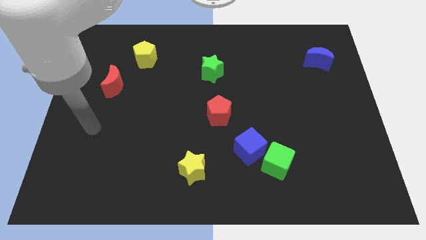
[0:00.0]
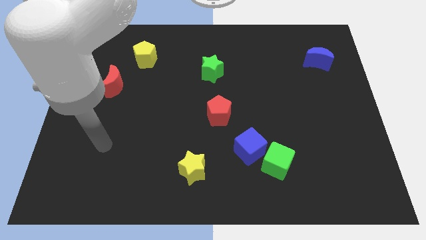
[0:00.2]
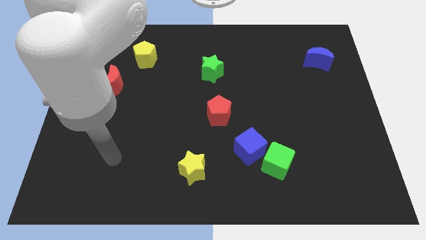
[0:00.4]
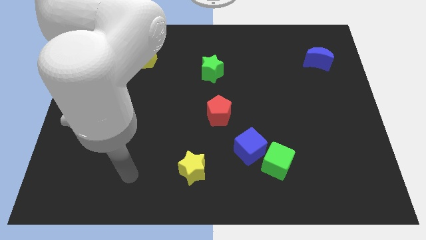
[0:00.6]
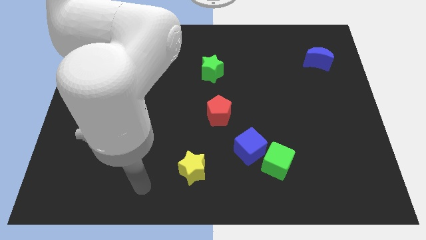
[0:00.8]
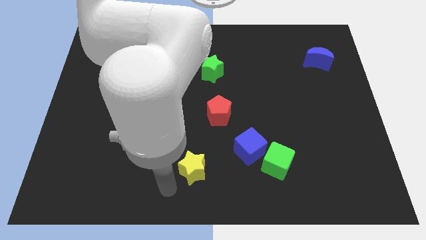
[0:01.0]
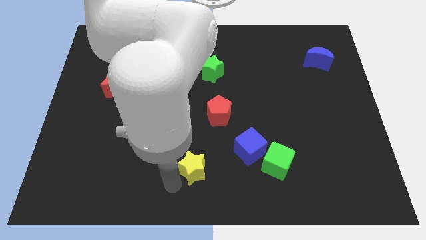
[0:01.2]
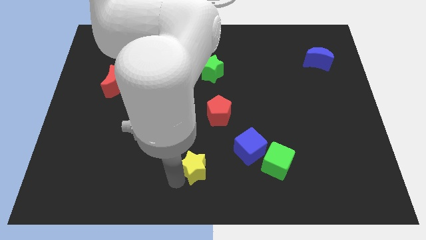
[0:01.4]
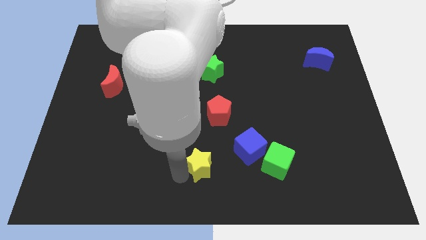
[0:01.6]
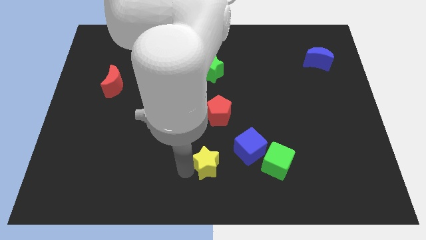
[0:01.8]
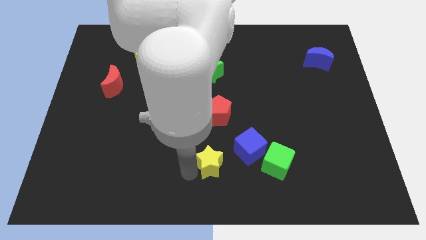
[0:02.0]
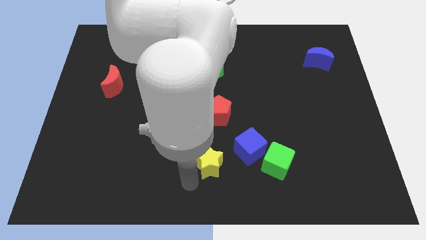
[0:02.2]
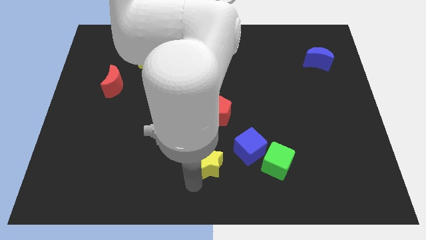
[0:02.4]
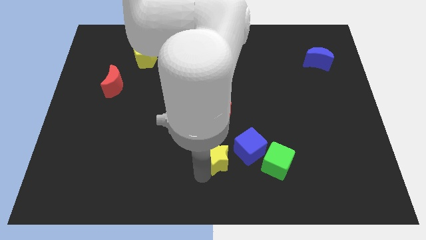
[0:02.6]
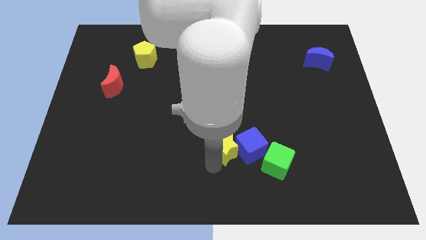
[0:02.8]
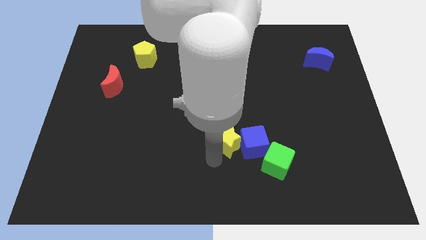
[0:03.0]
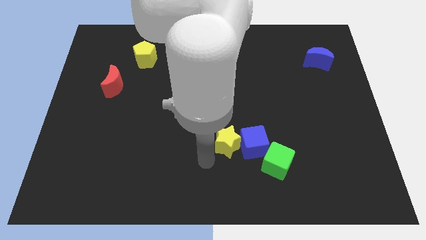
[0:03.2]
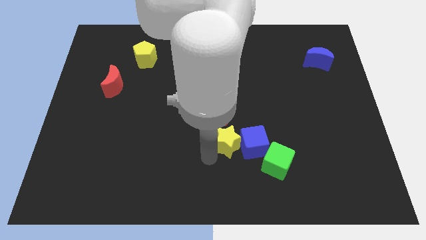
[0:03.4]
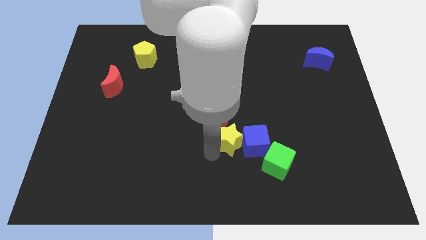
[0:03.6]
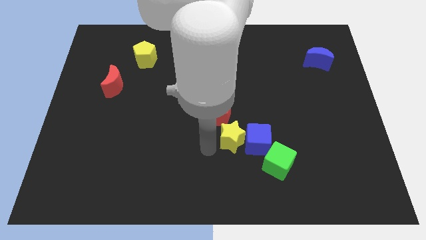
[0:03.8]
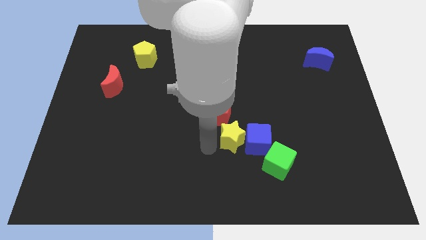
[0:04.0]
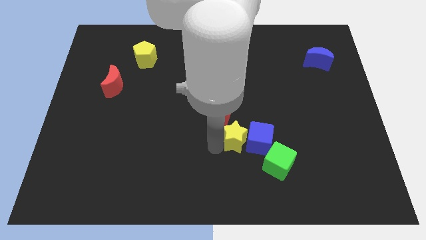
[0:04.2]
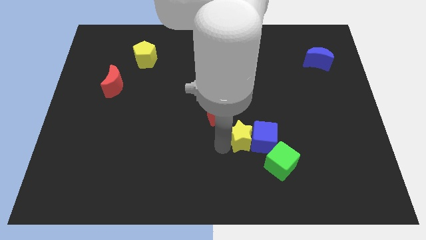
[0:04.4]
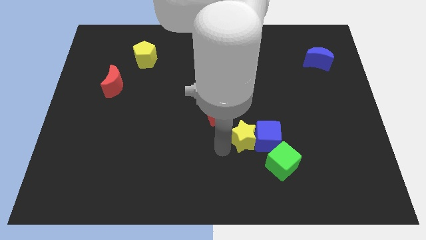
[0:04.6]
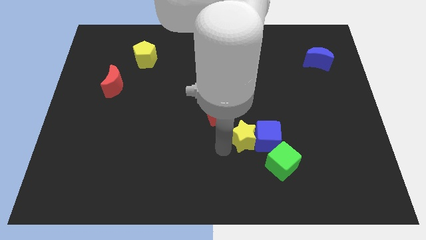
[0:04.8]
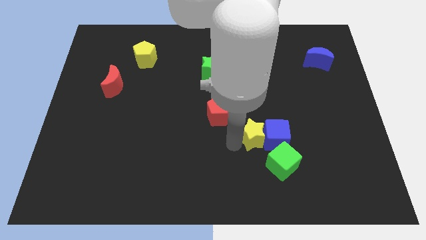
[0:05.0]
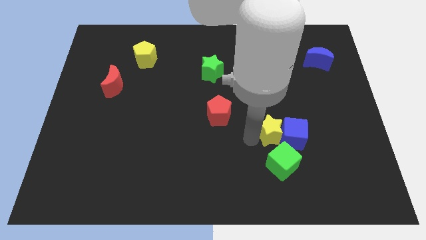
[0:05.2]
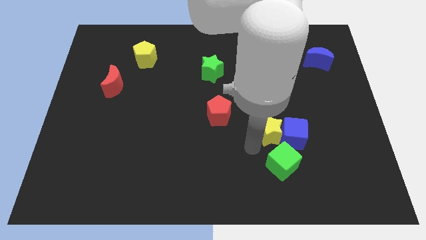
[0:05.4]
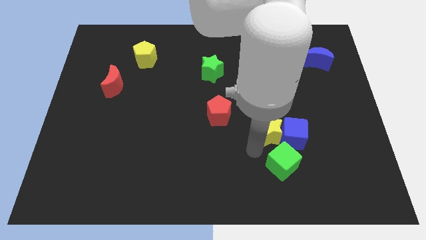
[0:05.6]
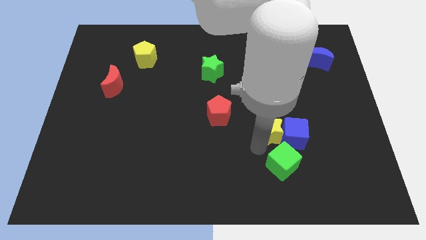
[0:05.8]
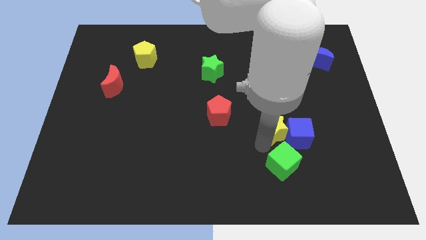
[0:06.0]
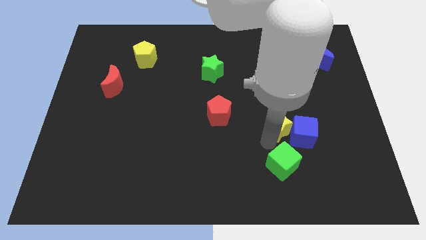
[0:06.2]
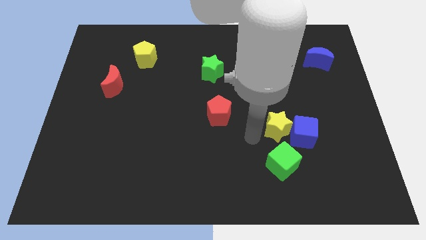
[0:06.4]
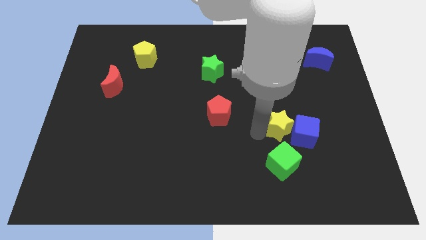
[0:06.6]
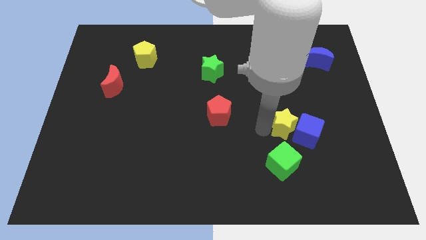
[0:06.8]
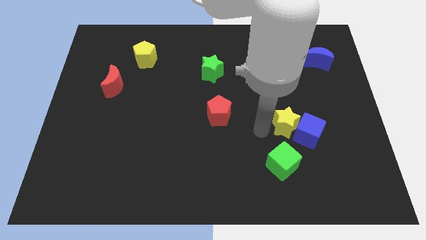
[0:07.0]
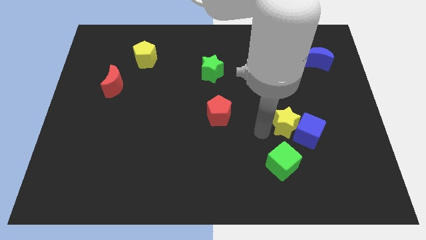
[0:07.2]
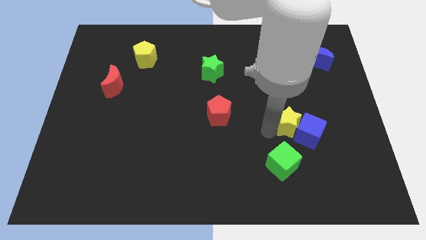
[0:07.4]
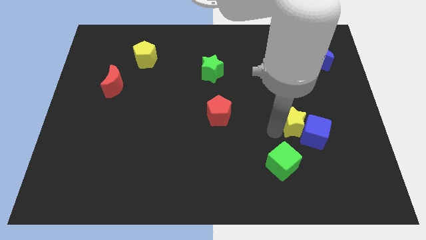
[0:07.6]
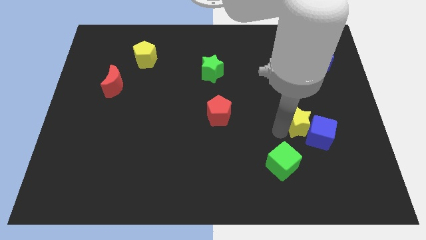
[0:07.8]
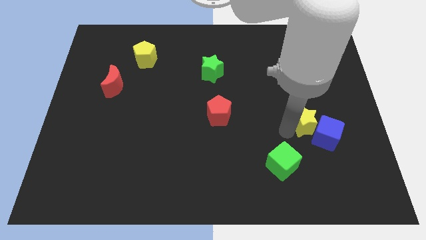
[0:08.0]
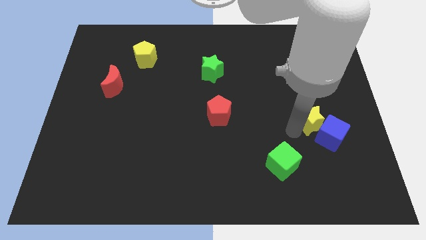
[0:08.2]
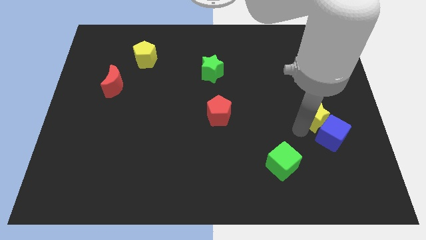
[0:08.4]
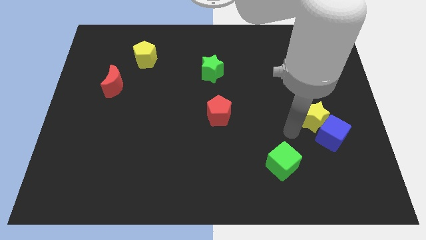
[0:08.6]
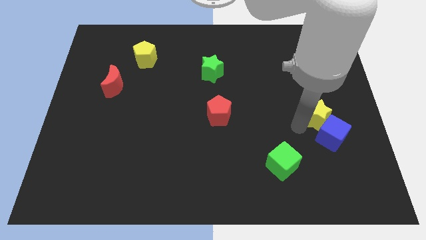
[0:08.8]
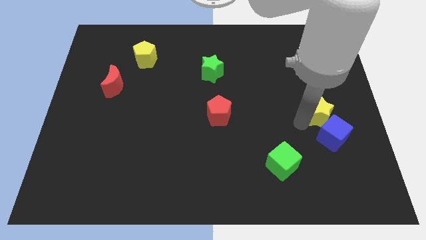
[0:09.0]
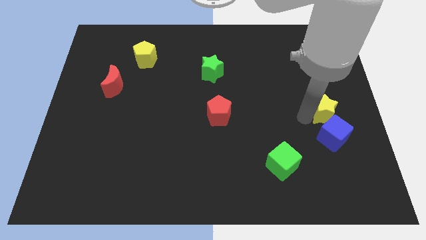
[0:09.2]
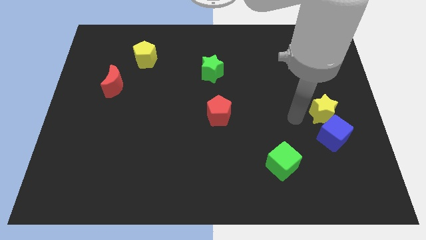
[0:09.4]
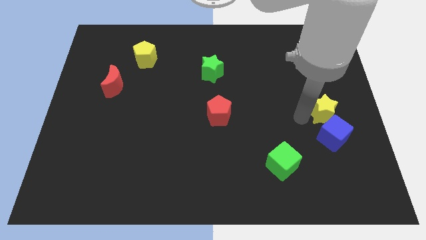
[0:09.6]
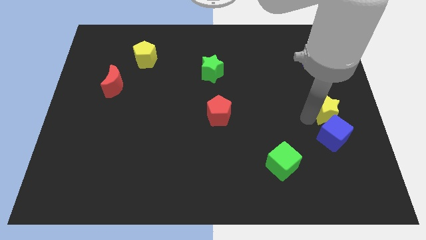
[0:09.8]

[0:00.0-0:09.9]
push the yellow star to the center right

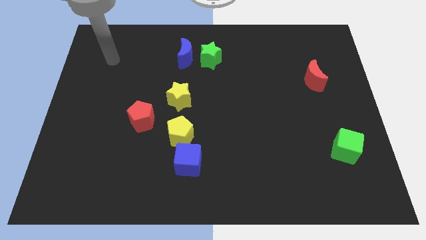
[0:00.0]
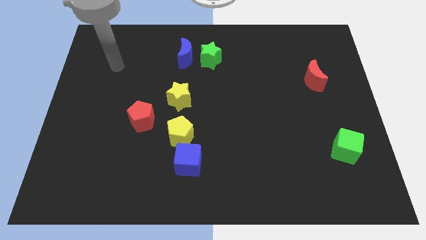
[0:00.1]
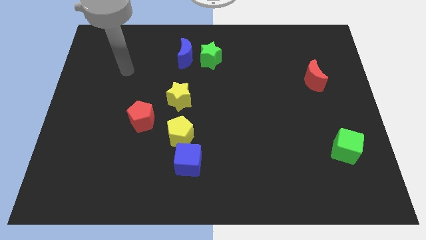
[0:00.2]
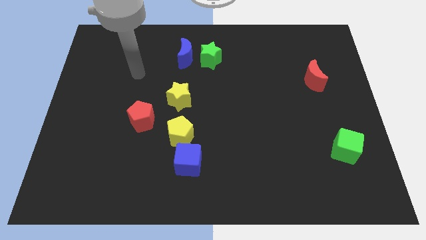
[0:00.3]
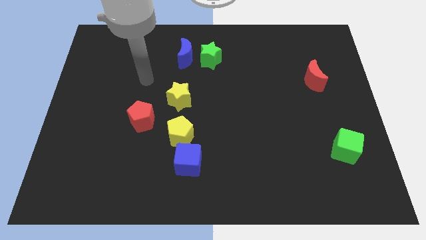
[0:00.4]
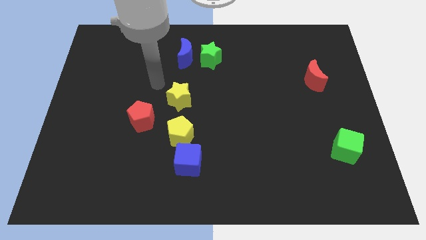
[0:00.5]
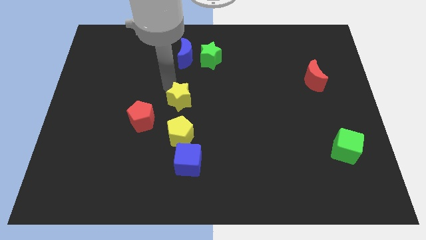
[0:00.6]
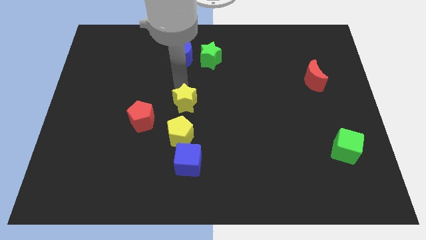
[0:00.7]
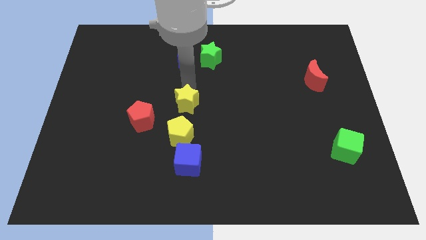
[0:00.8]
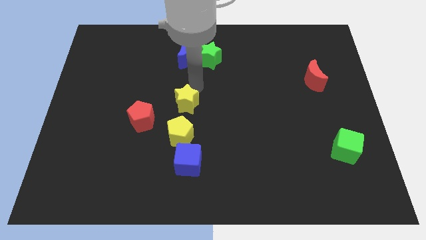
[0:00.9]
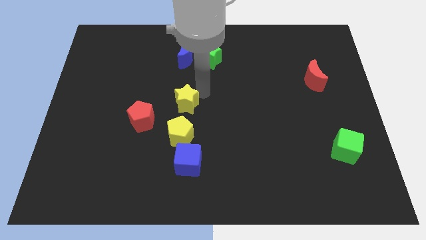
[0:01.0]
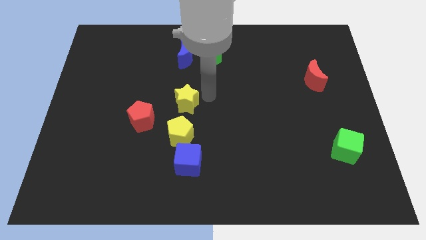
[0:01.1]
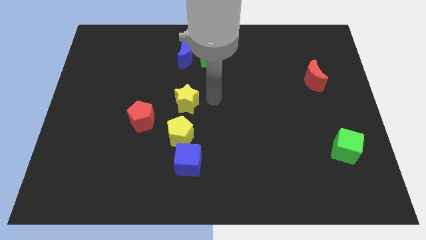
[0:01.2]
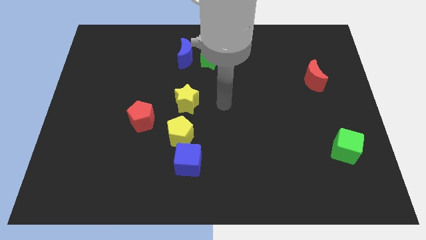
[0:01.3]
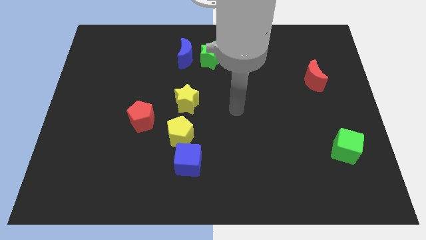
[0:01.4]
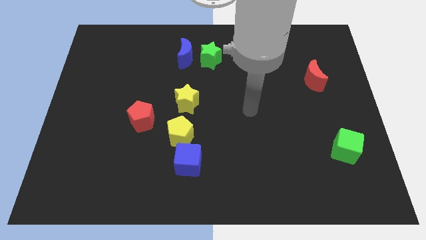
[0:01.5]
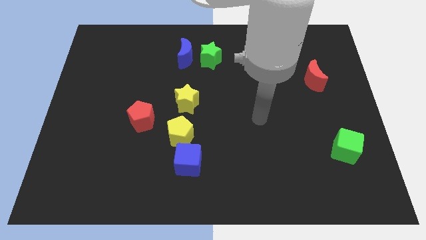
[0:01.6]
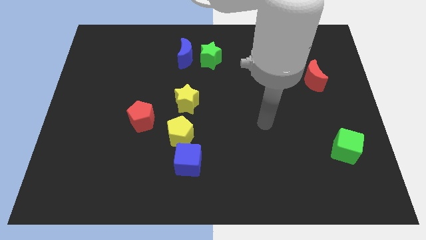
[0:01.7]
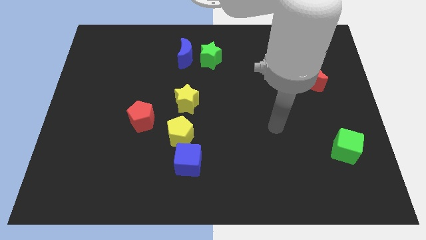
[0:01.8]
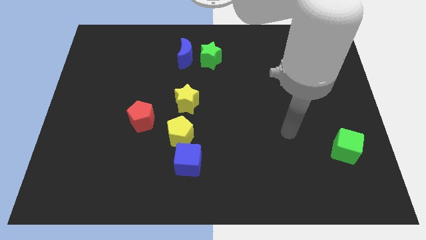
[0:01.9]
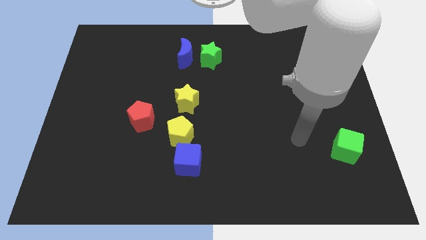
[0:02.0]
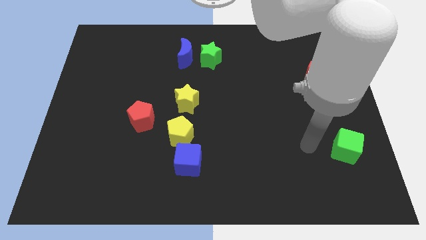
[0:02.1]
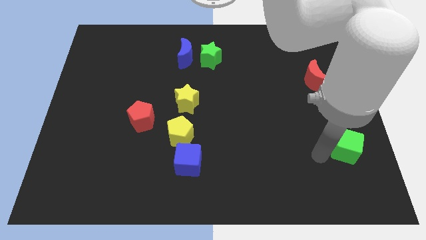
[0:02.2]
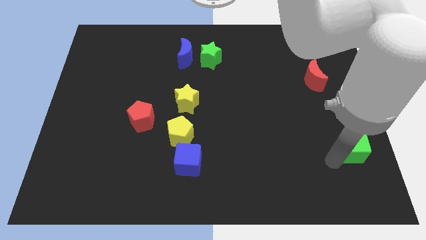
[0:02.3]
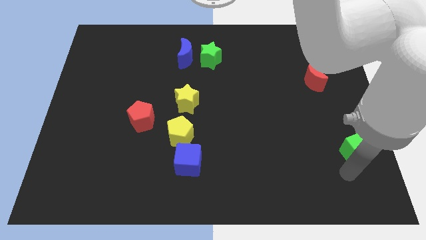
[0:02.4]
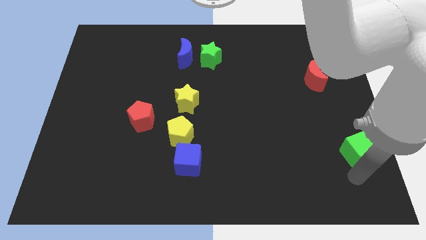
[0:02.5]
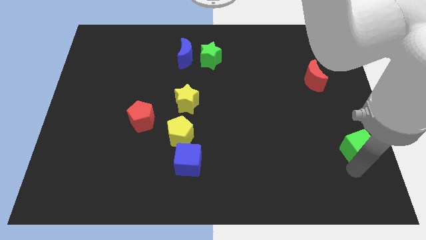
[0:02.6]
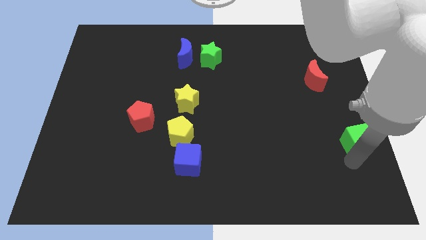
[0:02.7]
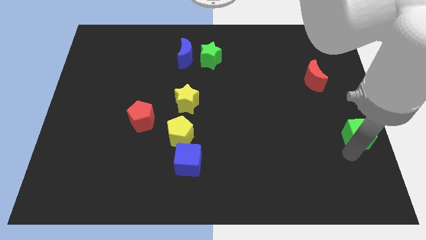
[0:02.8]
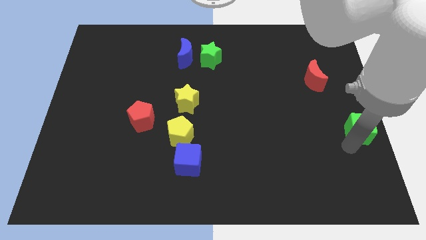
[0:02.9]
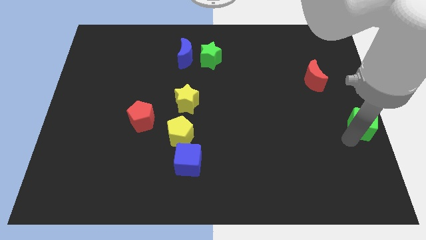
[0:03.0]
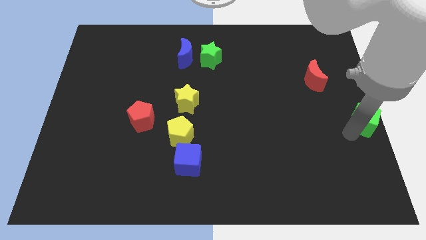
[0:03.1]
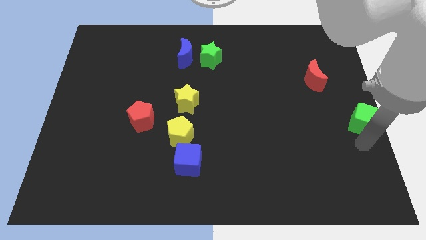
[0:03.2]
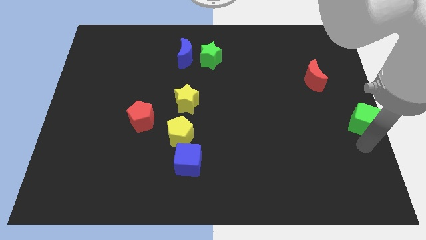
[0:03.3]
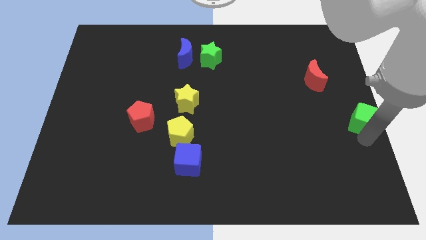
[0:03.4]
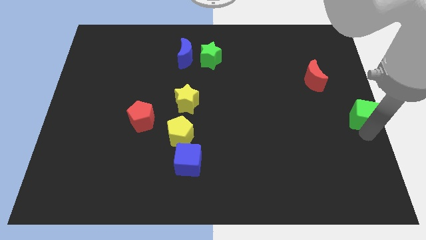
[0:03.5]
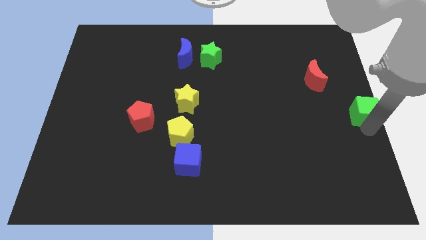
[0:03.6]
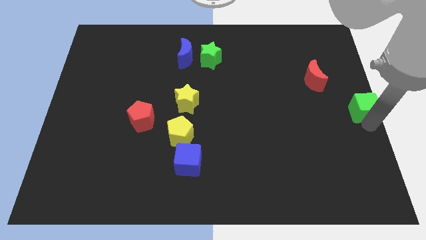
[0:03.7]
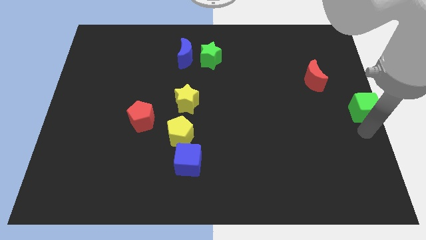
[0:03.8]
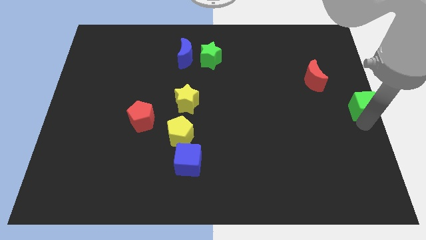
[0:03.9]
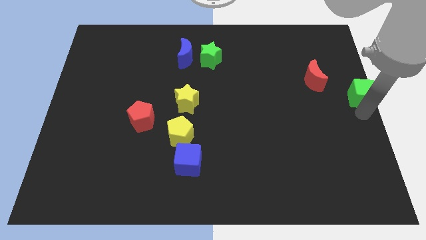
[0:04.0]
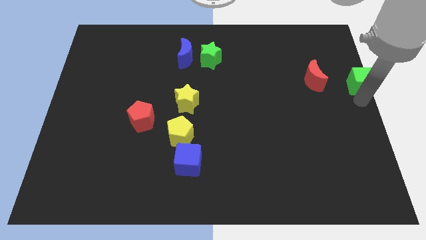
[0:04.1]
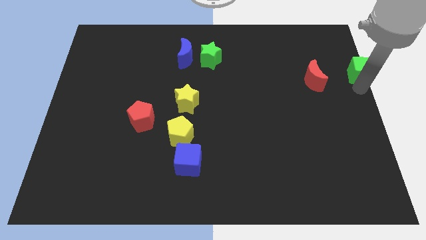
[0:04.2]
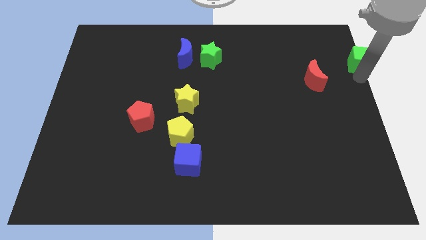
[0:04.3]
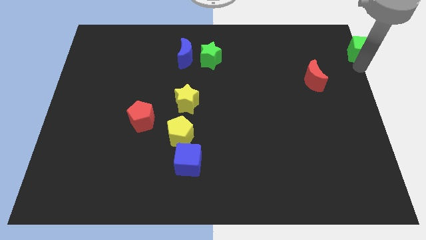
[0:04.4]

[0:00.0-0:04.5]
slide the green cube to the top right corner
